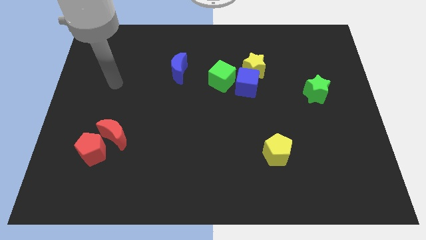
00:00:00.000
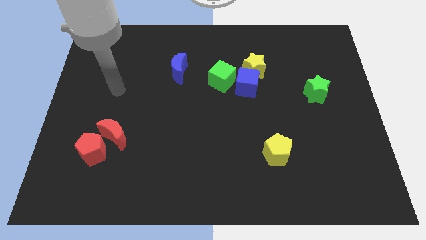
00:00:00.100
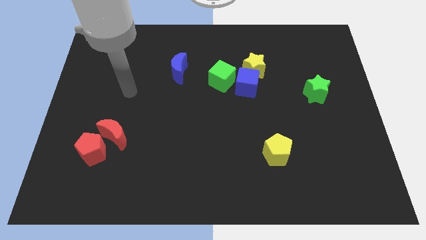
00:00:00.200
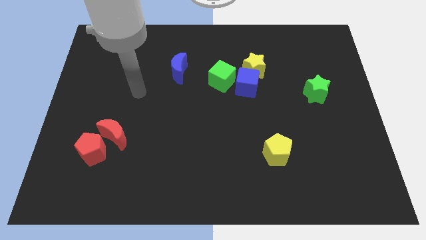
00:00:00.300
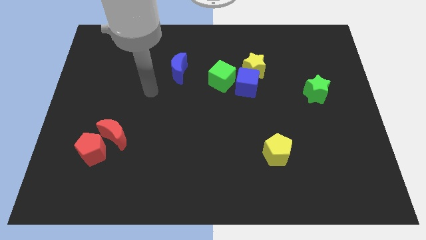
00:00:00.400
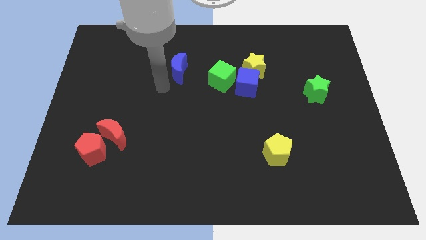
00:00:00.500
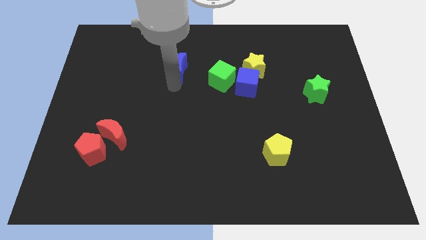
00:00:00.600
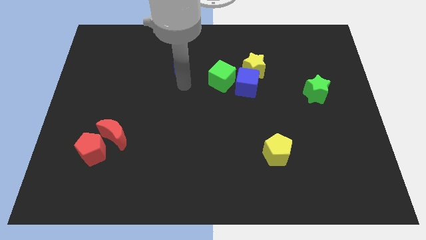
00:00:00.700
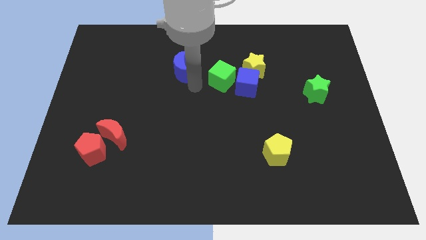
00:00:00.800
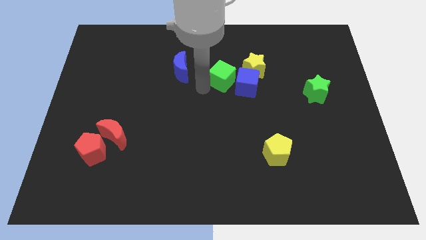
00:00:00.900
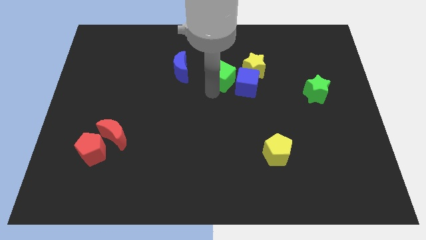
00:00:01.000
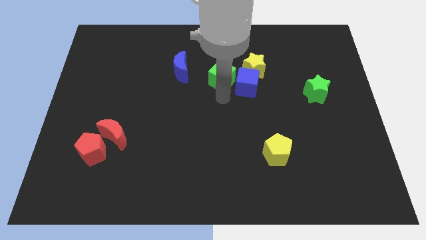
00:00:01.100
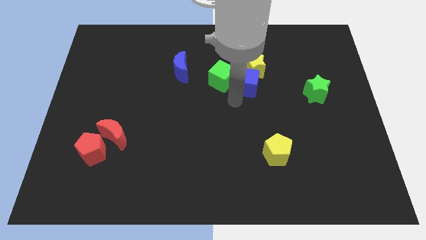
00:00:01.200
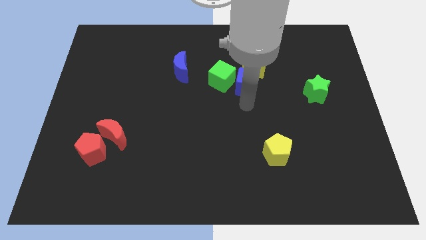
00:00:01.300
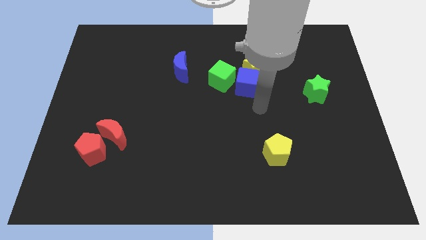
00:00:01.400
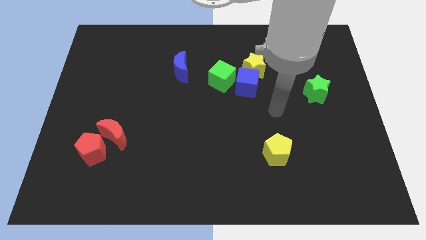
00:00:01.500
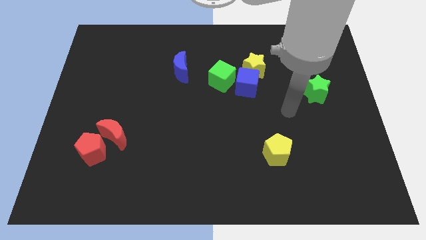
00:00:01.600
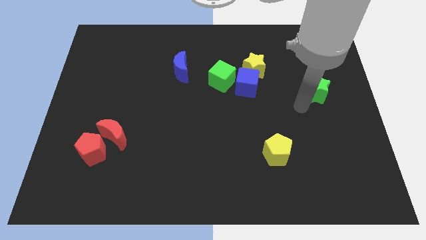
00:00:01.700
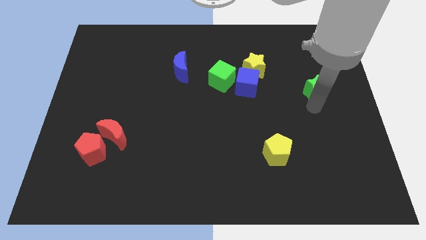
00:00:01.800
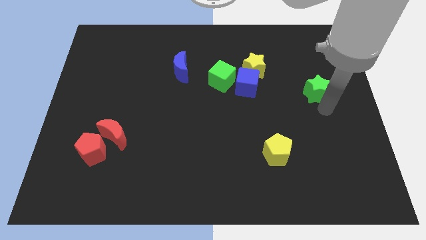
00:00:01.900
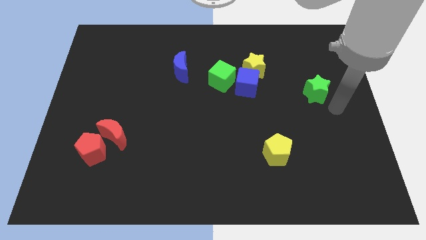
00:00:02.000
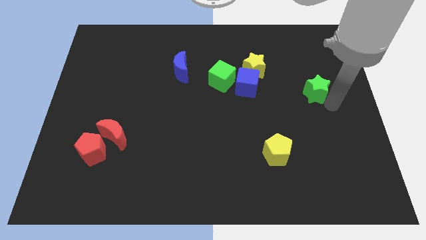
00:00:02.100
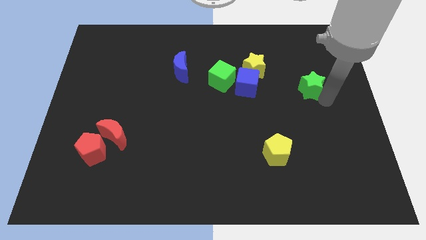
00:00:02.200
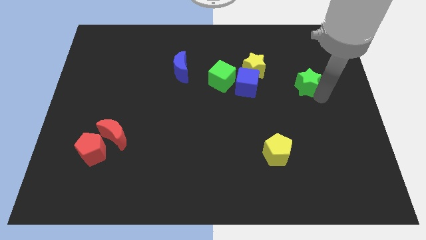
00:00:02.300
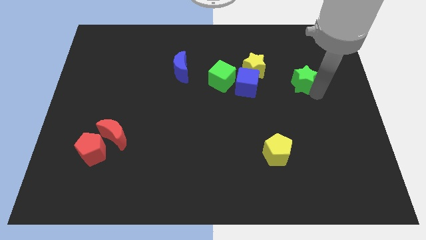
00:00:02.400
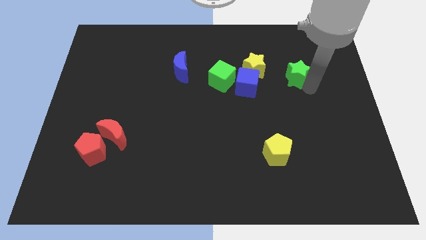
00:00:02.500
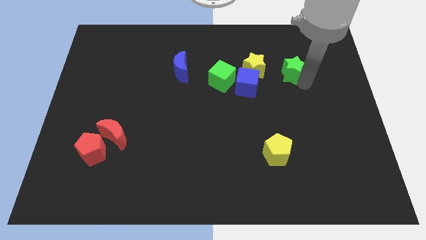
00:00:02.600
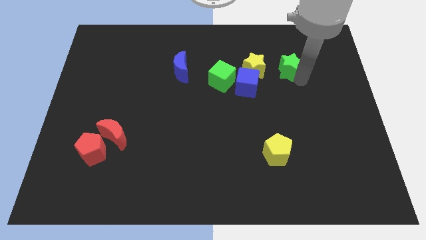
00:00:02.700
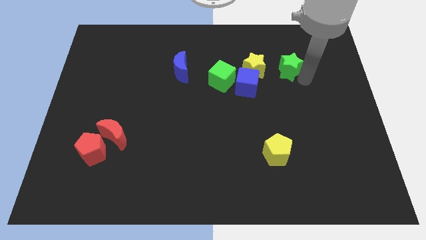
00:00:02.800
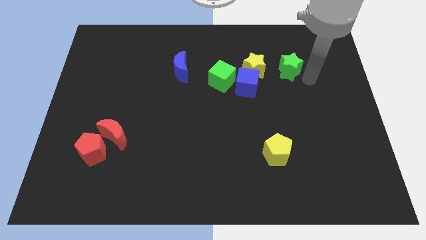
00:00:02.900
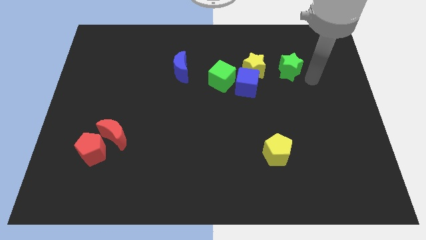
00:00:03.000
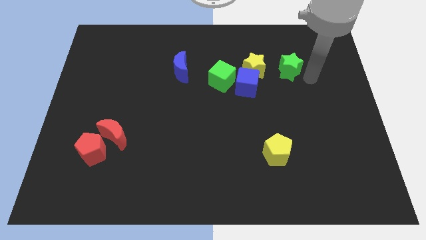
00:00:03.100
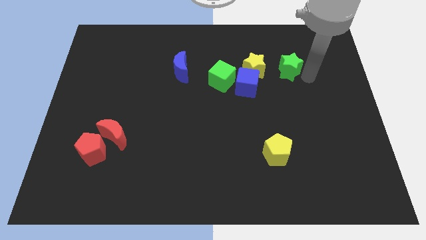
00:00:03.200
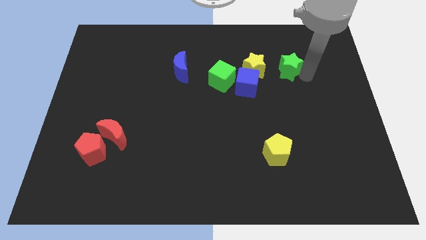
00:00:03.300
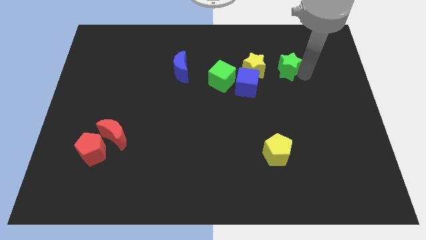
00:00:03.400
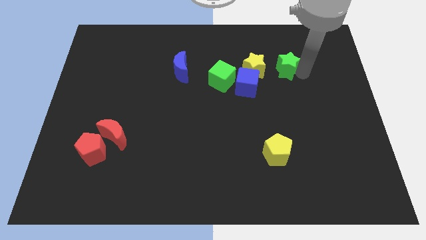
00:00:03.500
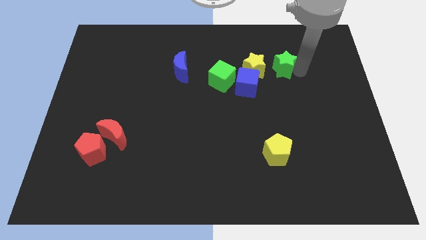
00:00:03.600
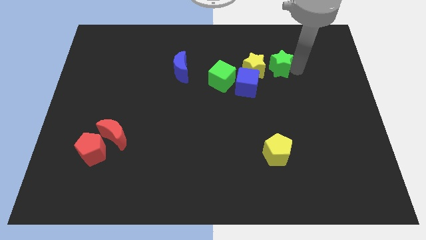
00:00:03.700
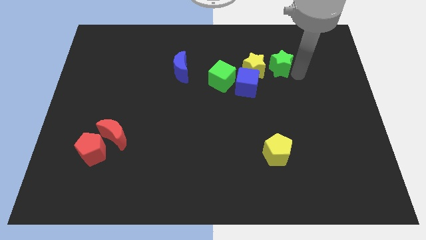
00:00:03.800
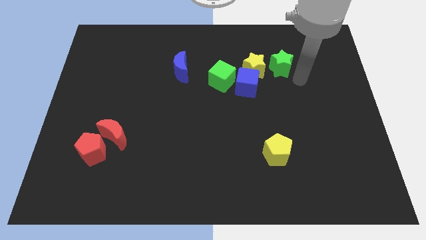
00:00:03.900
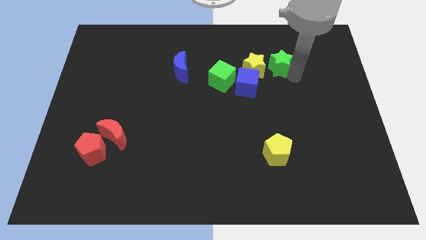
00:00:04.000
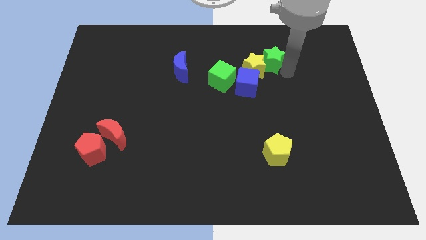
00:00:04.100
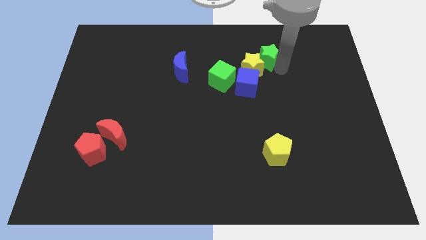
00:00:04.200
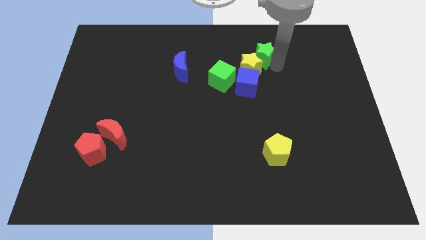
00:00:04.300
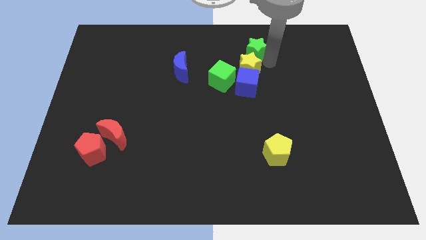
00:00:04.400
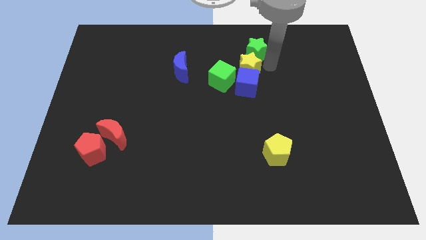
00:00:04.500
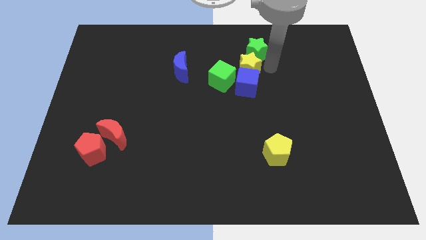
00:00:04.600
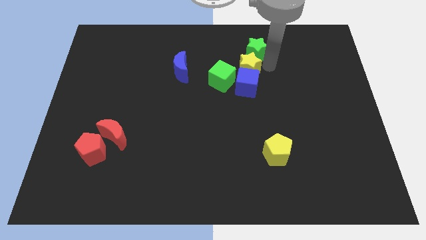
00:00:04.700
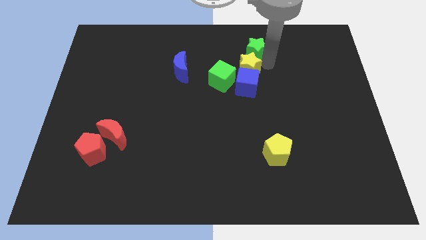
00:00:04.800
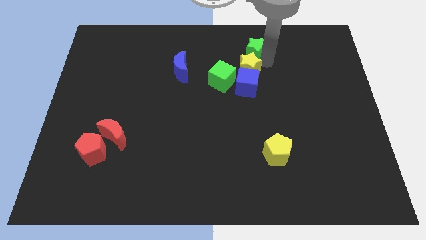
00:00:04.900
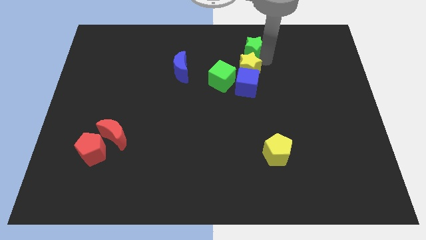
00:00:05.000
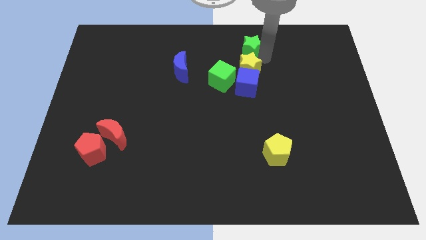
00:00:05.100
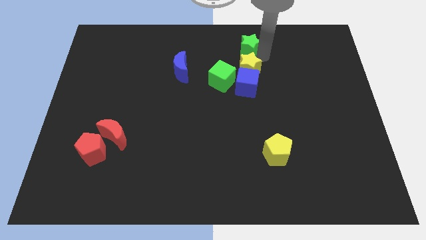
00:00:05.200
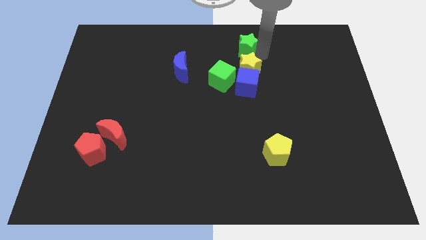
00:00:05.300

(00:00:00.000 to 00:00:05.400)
slide the green star to the top side

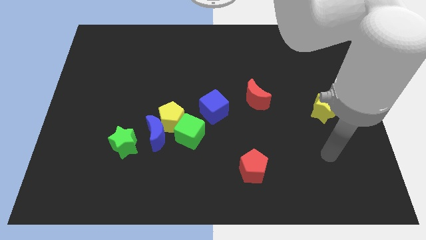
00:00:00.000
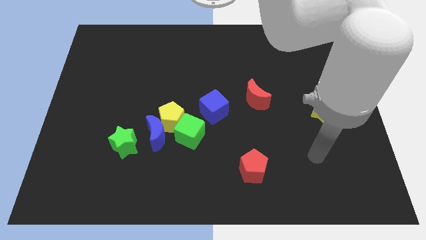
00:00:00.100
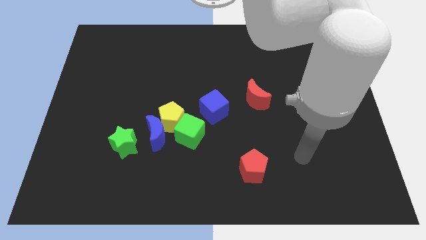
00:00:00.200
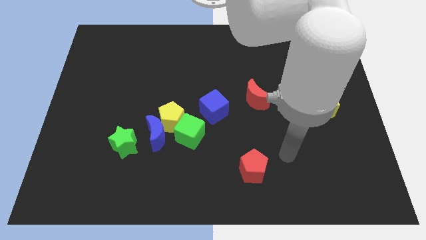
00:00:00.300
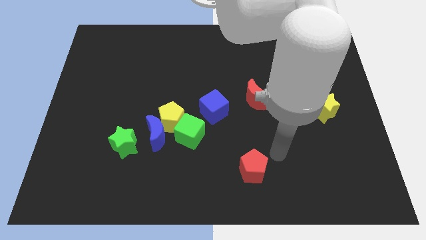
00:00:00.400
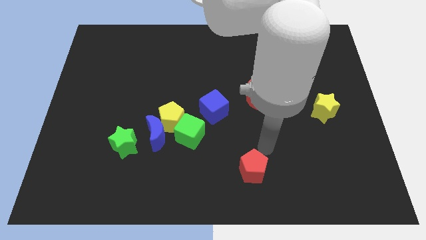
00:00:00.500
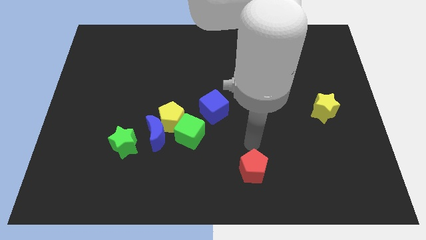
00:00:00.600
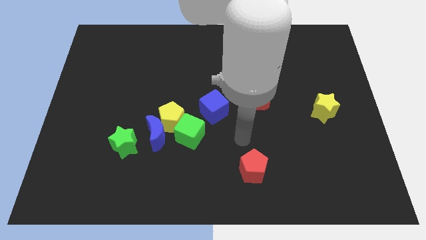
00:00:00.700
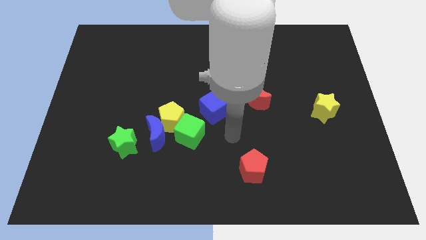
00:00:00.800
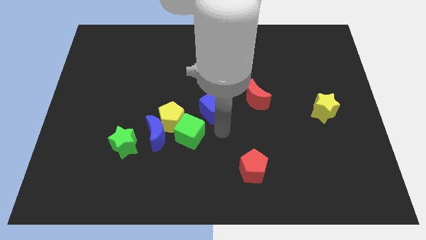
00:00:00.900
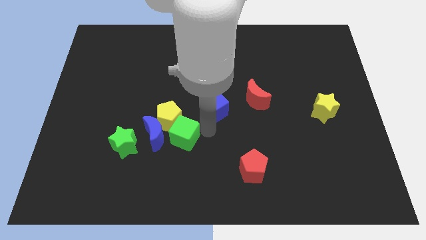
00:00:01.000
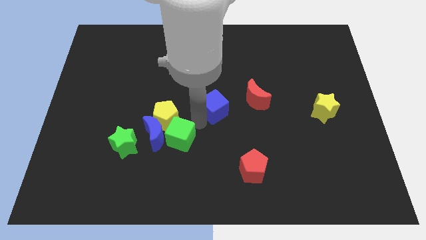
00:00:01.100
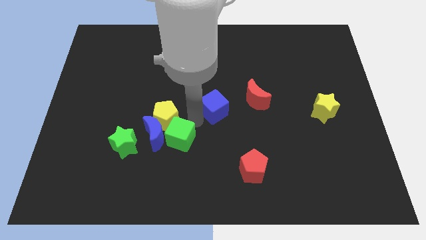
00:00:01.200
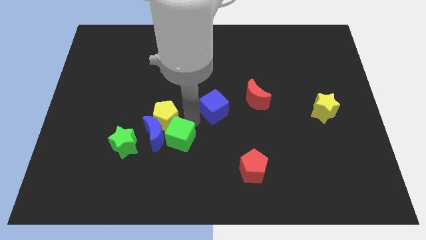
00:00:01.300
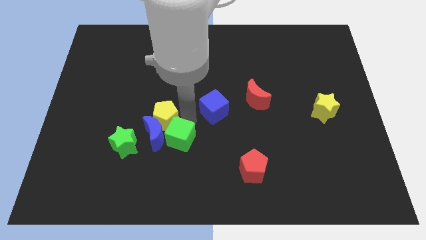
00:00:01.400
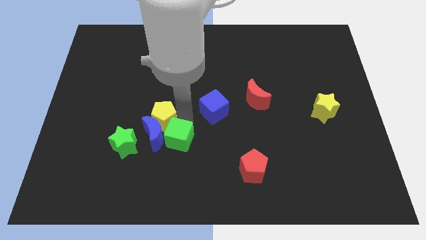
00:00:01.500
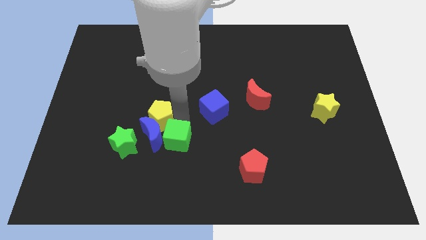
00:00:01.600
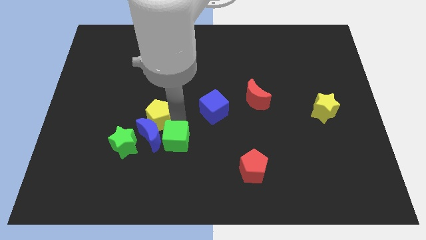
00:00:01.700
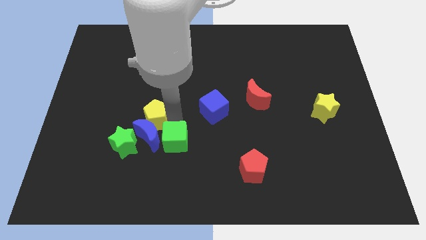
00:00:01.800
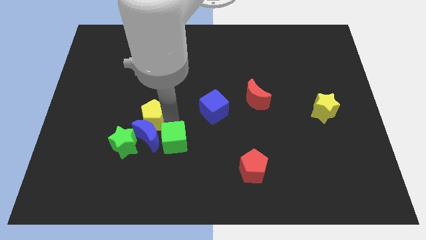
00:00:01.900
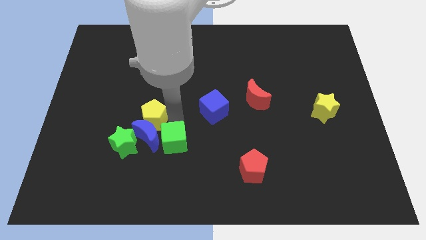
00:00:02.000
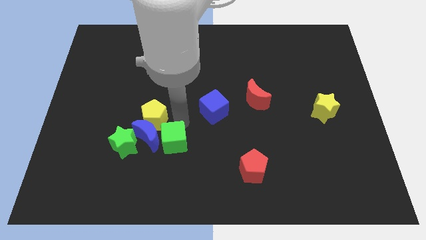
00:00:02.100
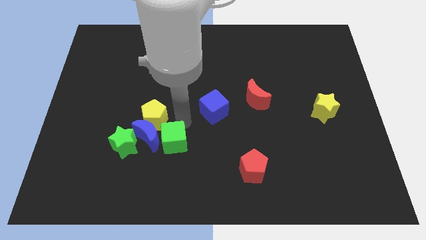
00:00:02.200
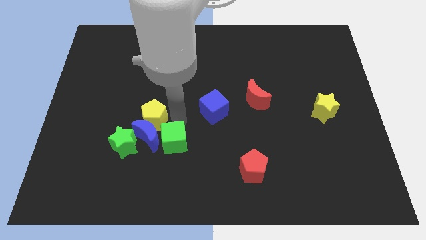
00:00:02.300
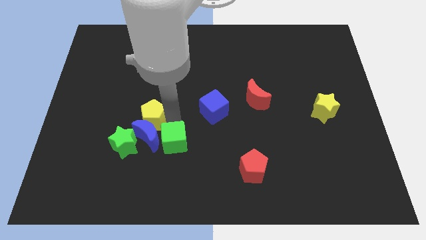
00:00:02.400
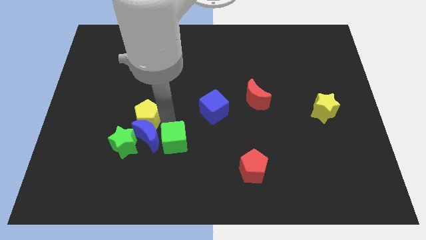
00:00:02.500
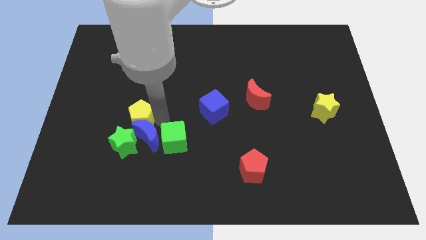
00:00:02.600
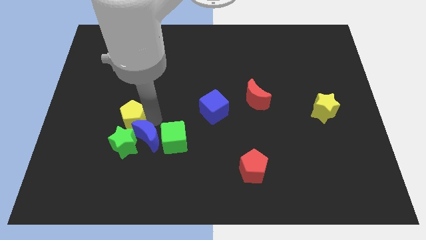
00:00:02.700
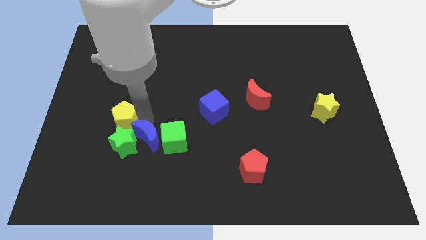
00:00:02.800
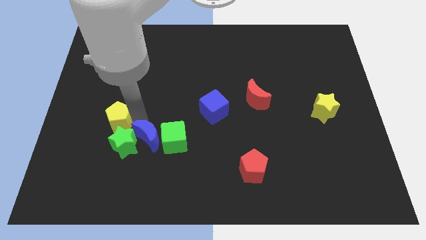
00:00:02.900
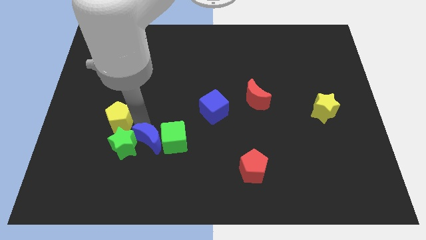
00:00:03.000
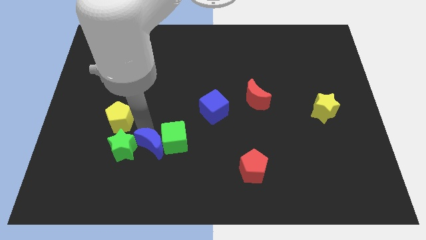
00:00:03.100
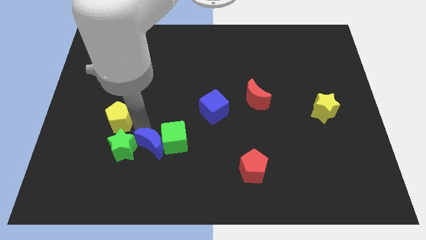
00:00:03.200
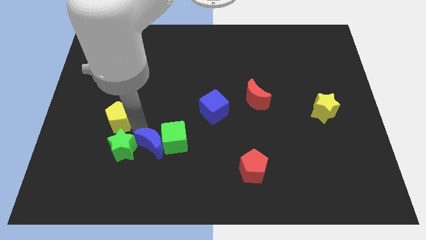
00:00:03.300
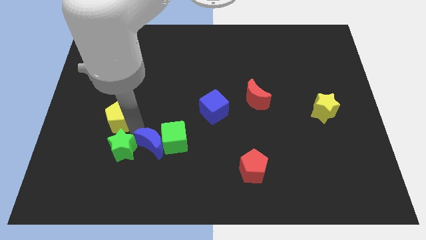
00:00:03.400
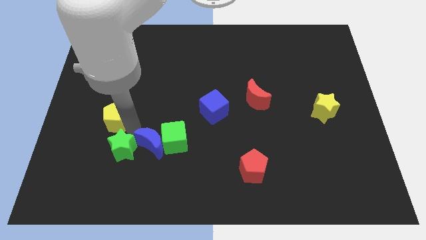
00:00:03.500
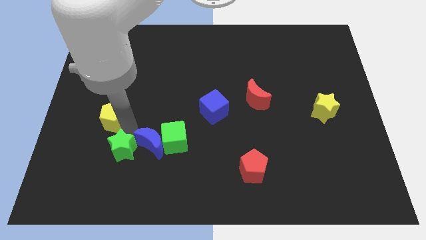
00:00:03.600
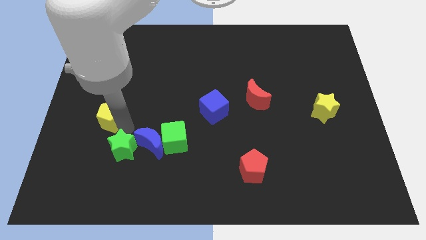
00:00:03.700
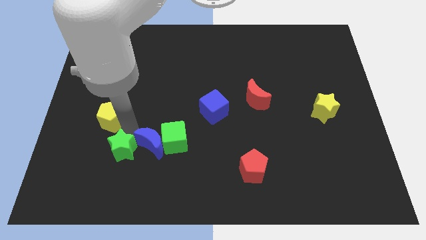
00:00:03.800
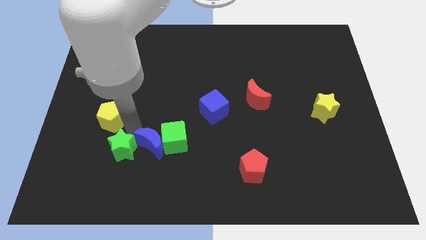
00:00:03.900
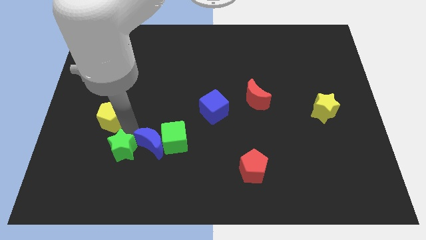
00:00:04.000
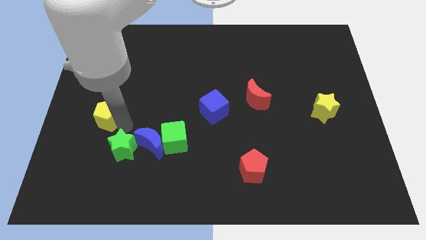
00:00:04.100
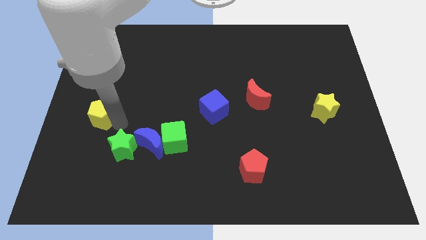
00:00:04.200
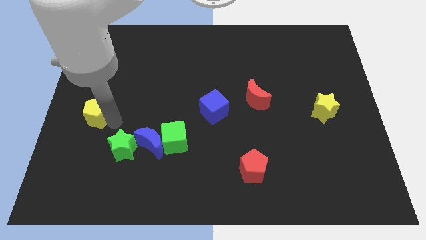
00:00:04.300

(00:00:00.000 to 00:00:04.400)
slide the yellow pentagon to the center left
